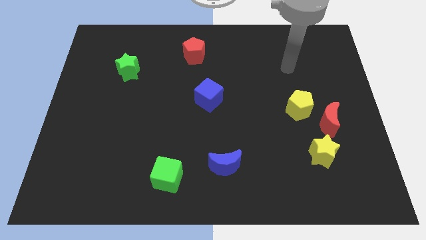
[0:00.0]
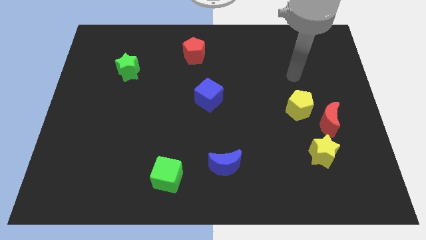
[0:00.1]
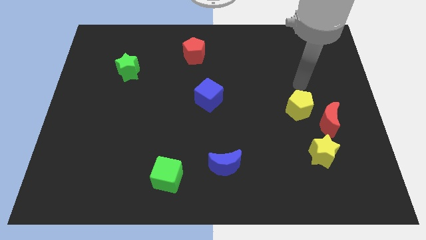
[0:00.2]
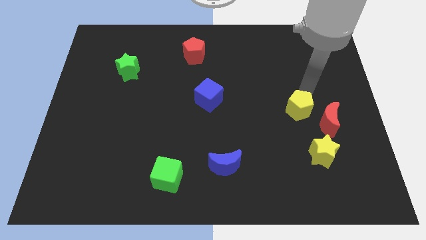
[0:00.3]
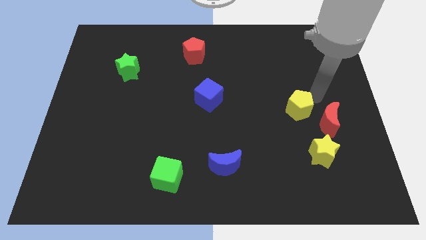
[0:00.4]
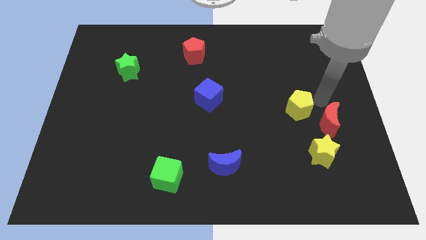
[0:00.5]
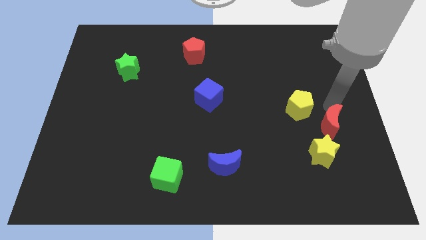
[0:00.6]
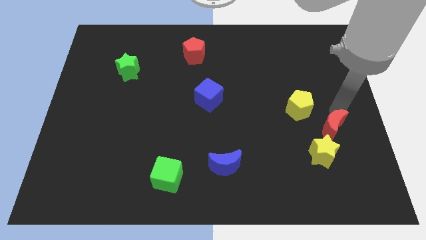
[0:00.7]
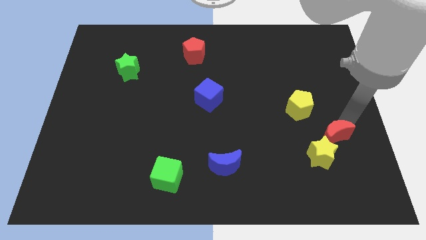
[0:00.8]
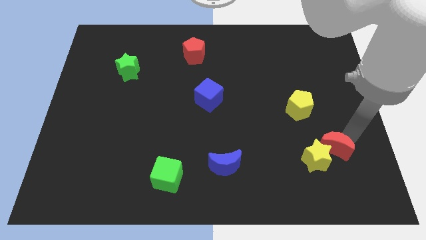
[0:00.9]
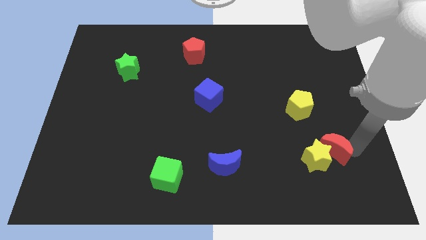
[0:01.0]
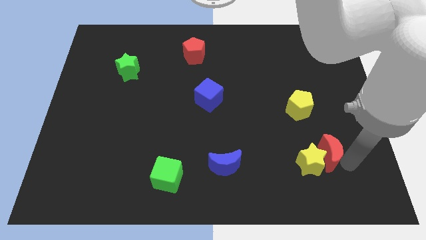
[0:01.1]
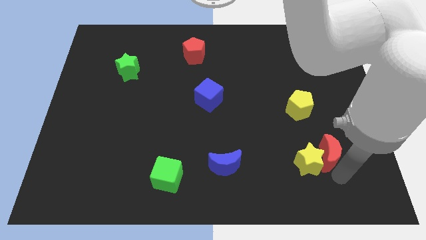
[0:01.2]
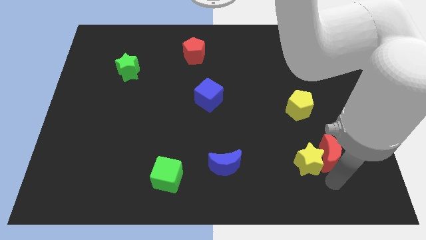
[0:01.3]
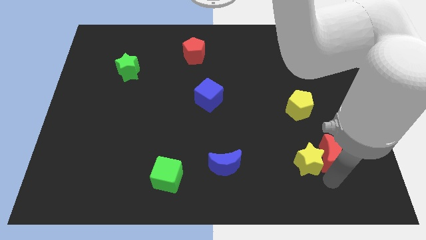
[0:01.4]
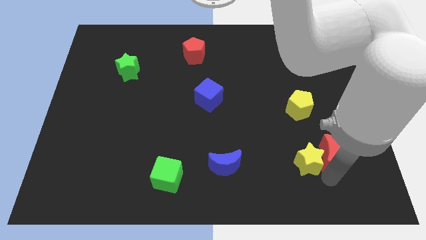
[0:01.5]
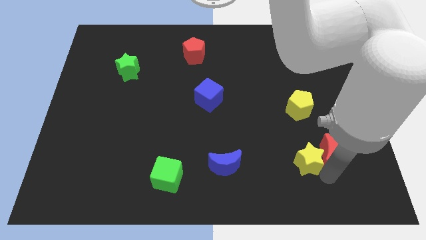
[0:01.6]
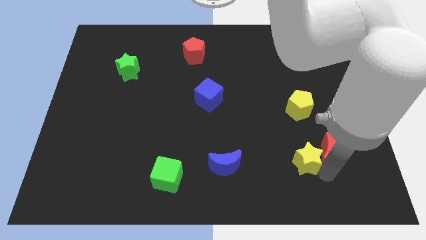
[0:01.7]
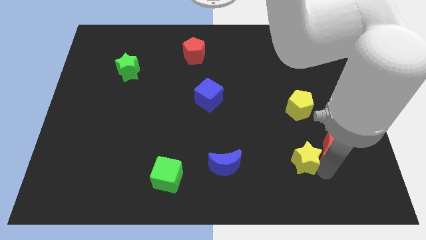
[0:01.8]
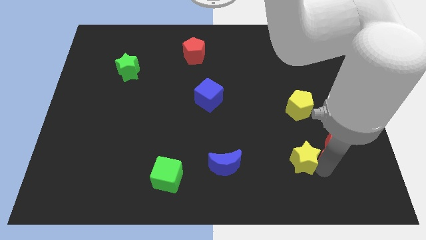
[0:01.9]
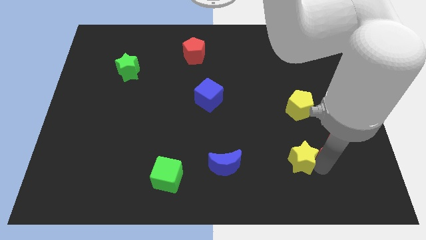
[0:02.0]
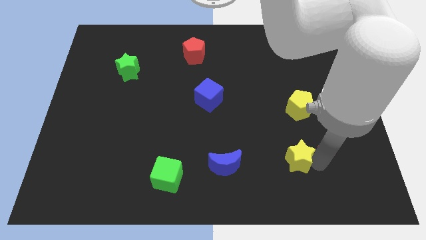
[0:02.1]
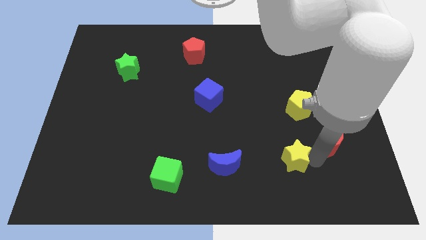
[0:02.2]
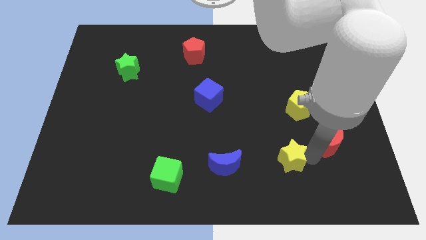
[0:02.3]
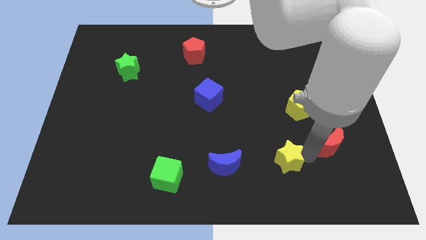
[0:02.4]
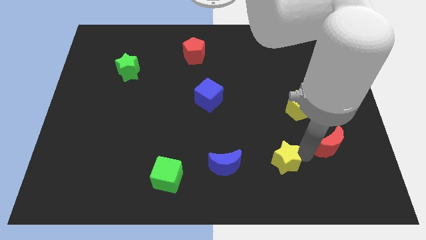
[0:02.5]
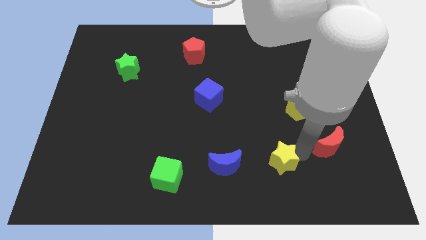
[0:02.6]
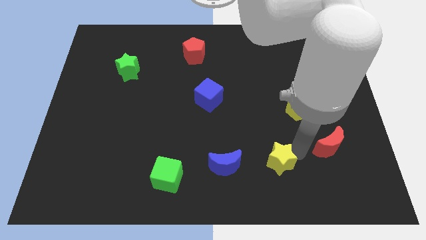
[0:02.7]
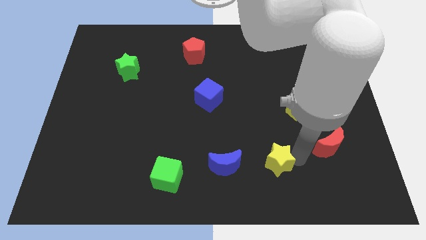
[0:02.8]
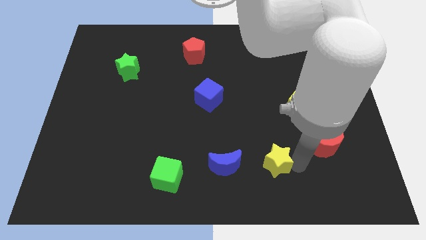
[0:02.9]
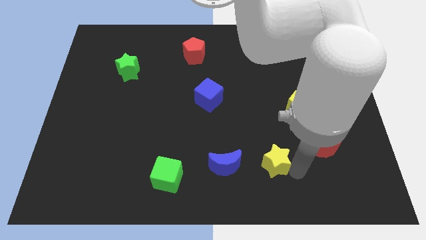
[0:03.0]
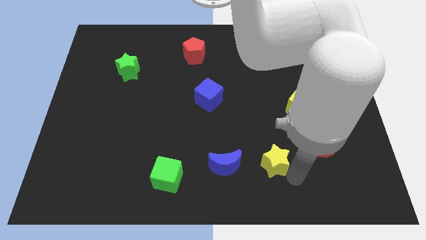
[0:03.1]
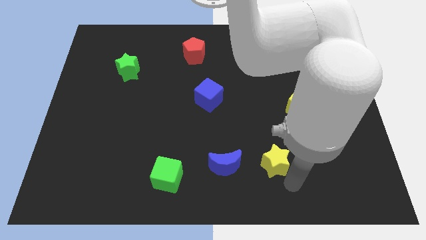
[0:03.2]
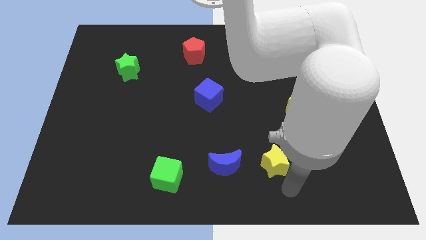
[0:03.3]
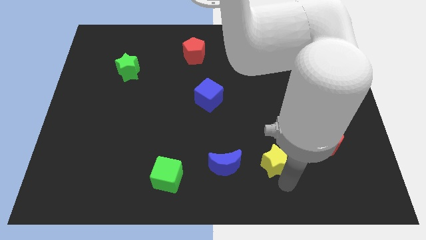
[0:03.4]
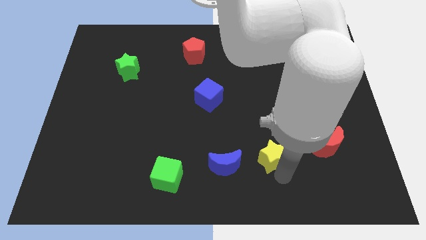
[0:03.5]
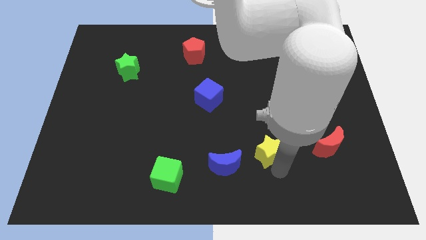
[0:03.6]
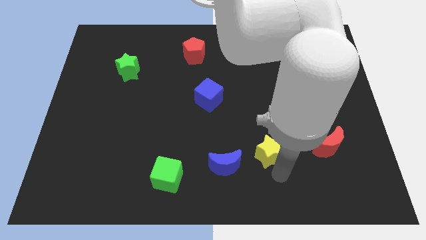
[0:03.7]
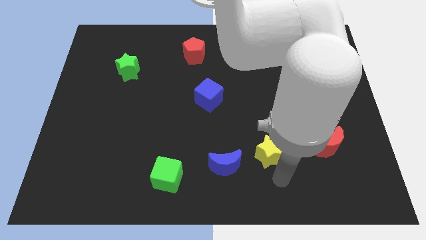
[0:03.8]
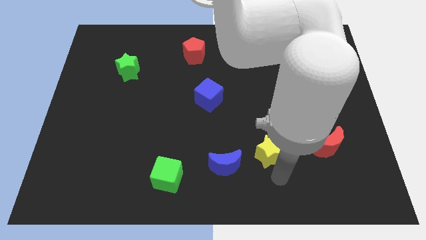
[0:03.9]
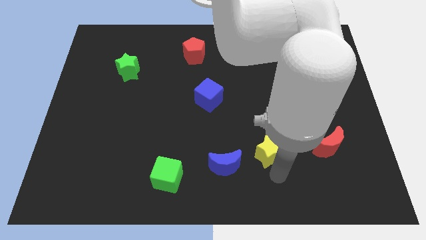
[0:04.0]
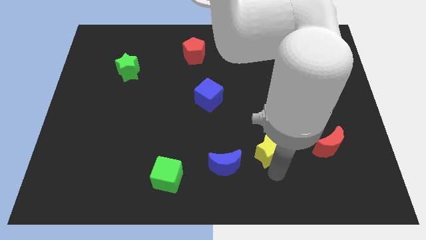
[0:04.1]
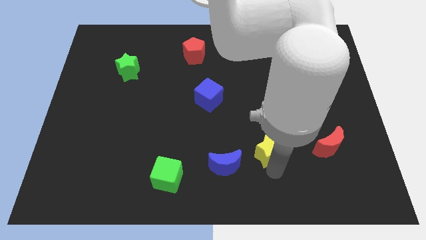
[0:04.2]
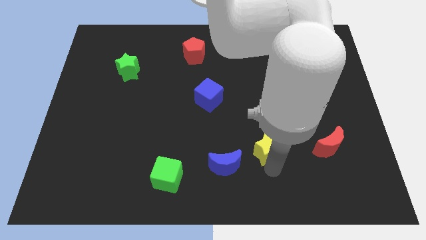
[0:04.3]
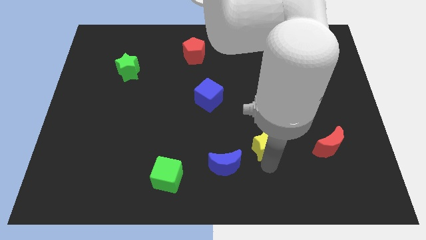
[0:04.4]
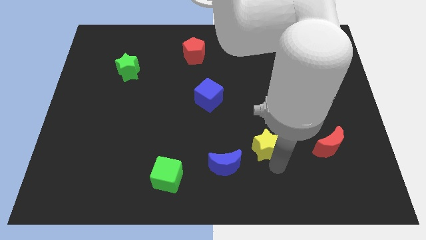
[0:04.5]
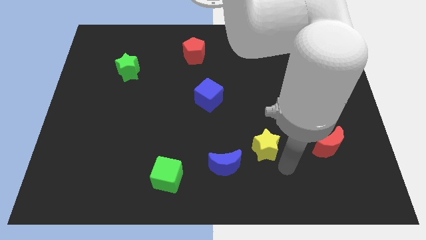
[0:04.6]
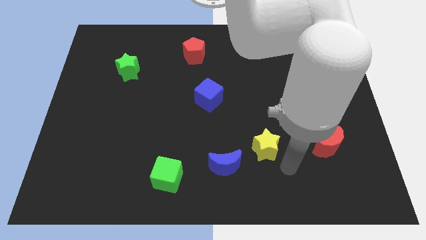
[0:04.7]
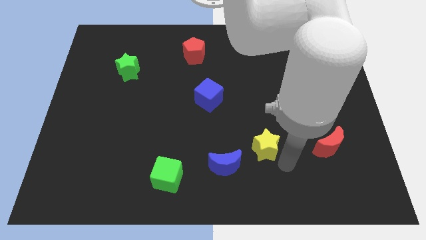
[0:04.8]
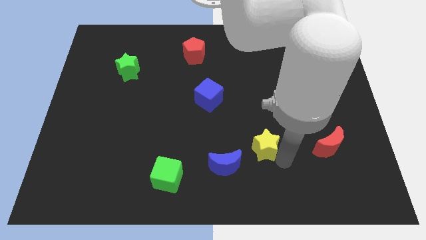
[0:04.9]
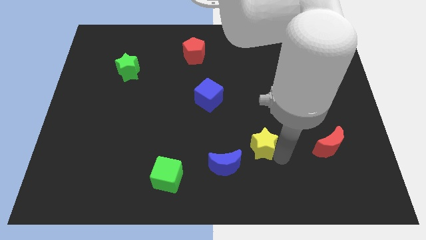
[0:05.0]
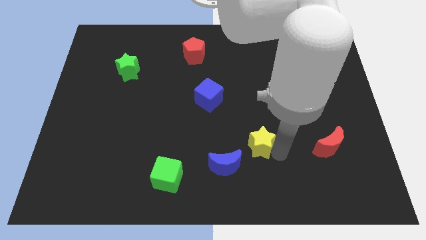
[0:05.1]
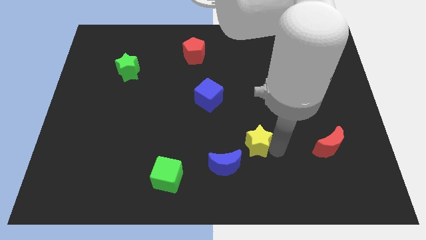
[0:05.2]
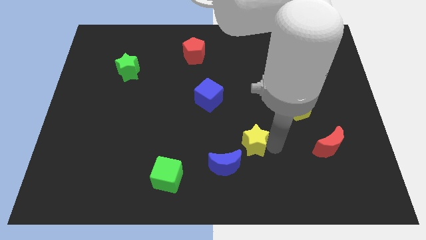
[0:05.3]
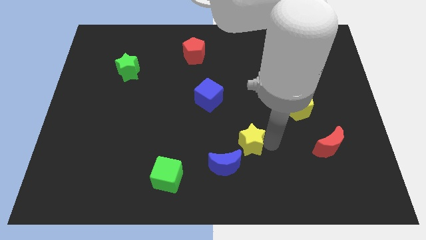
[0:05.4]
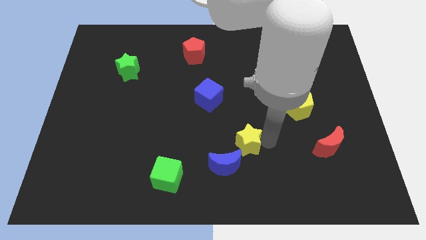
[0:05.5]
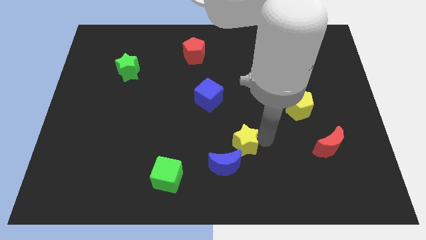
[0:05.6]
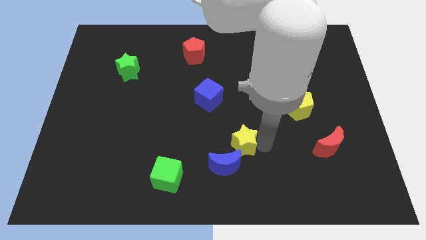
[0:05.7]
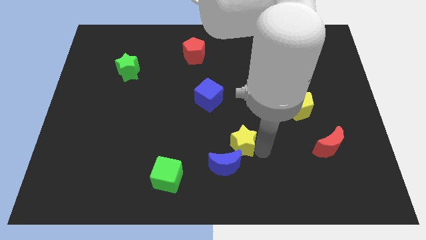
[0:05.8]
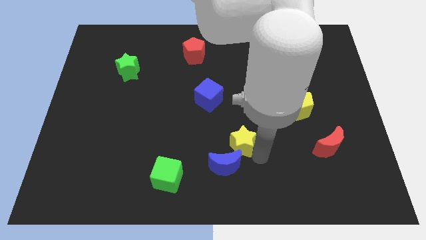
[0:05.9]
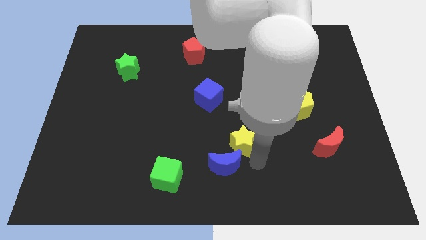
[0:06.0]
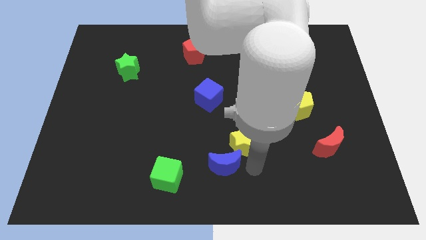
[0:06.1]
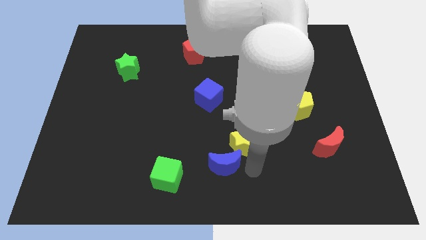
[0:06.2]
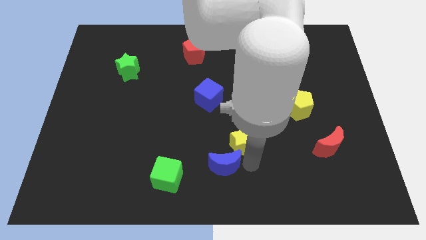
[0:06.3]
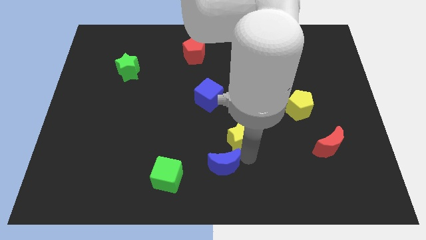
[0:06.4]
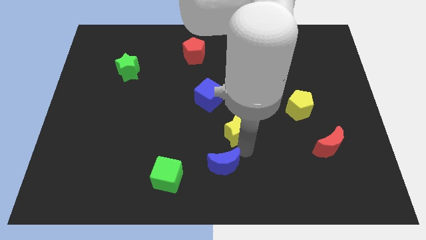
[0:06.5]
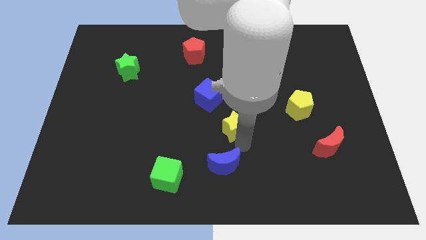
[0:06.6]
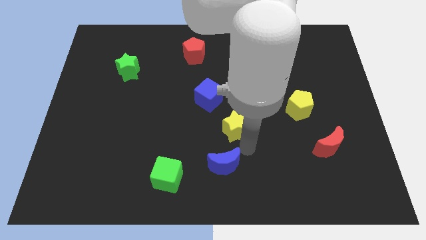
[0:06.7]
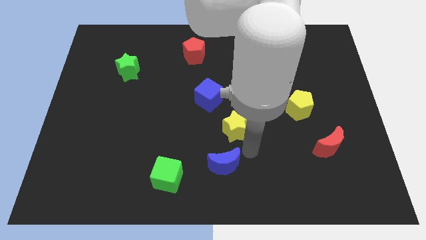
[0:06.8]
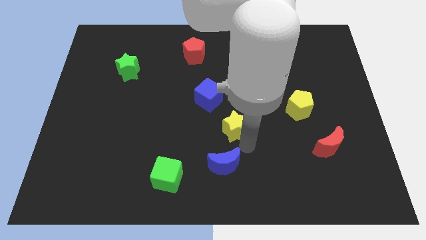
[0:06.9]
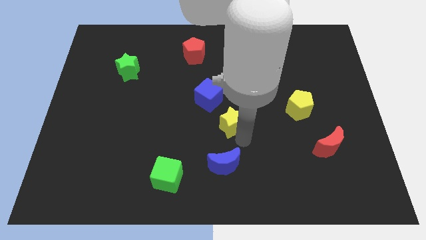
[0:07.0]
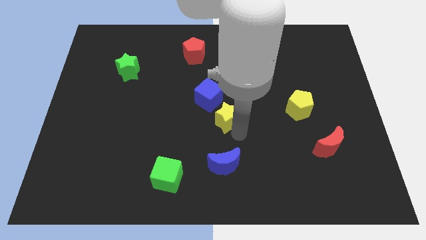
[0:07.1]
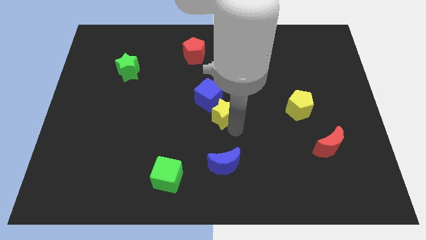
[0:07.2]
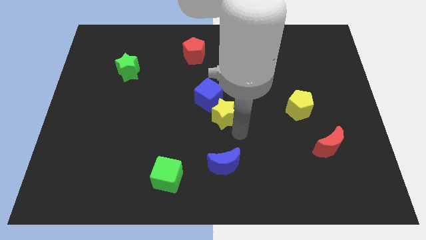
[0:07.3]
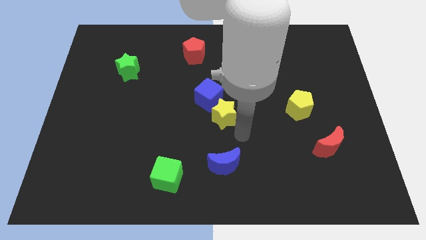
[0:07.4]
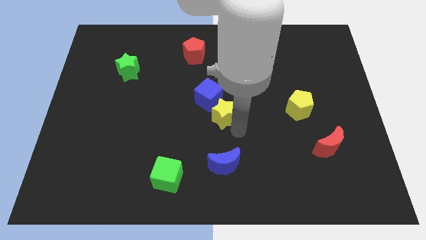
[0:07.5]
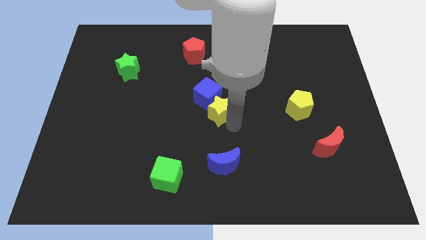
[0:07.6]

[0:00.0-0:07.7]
move the yellow star towards the blue cube
